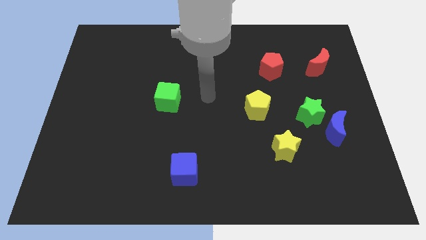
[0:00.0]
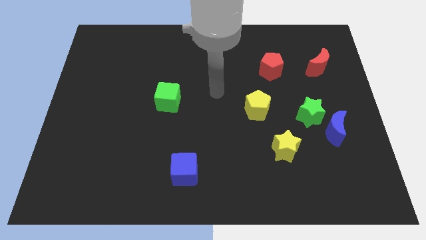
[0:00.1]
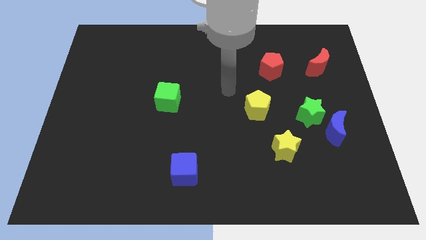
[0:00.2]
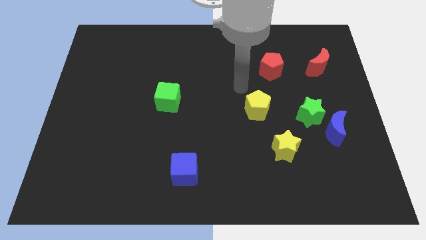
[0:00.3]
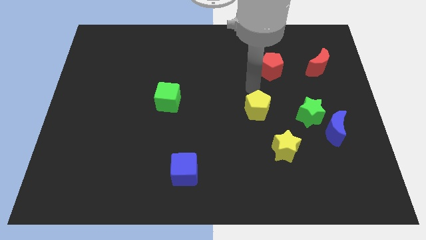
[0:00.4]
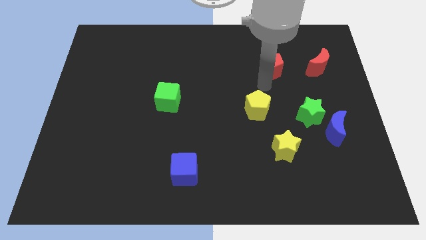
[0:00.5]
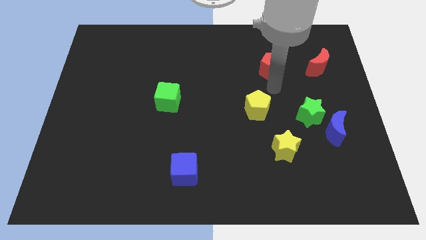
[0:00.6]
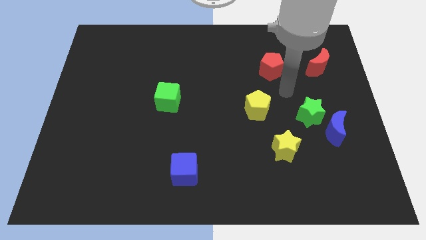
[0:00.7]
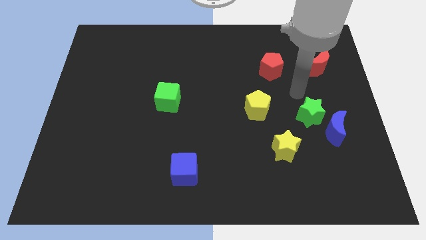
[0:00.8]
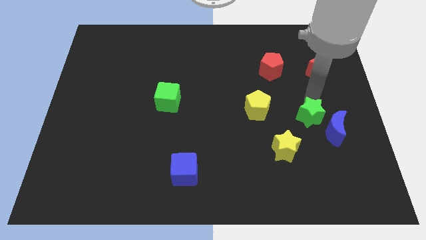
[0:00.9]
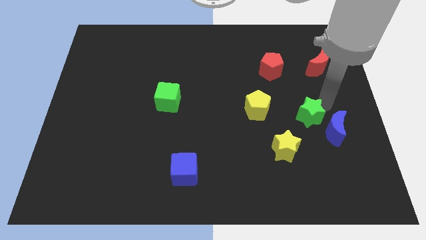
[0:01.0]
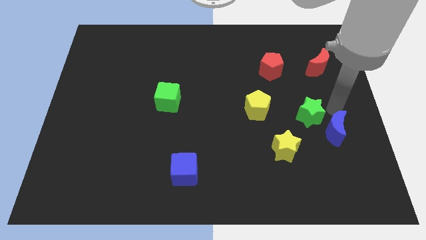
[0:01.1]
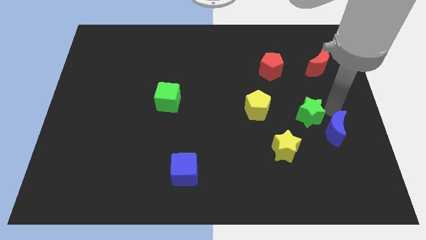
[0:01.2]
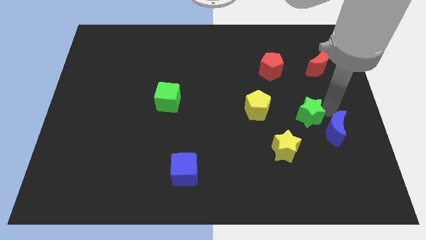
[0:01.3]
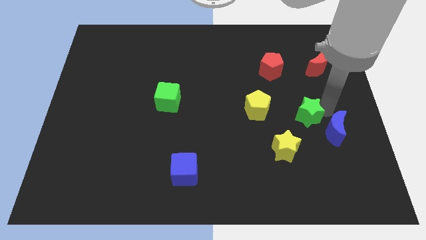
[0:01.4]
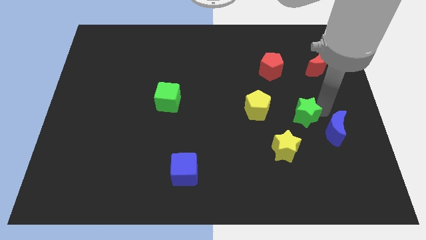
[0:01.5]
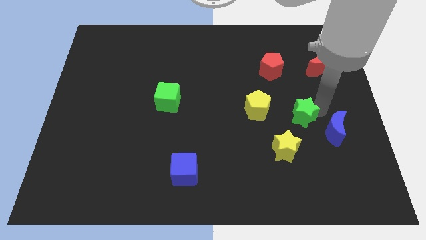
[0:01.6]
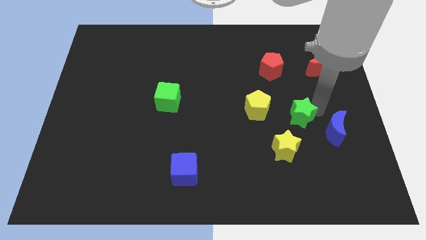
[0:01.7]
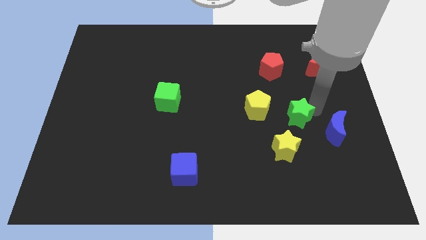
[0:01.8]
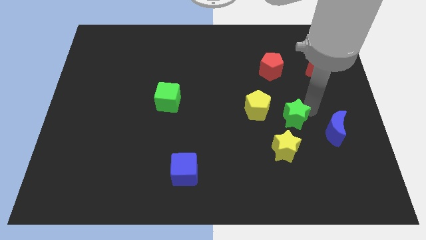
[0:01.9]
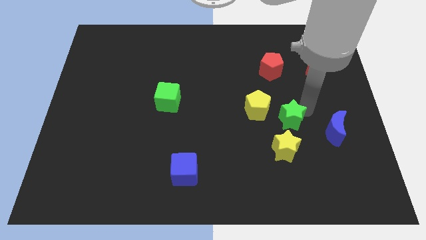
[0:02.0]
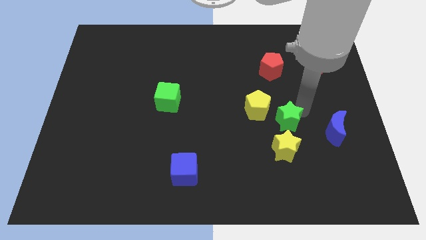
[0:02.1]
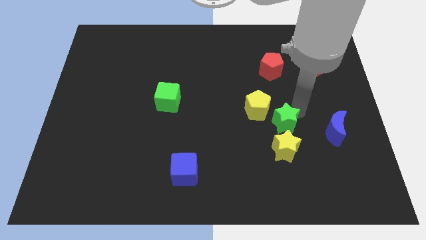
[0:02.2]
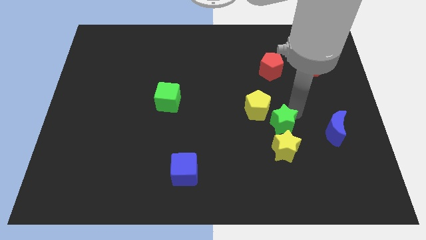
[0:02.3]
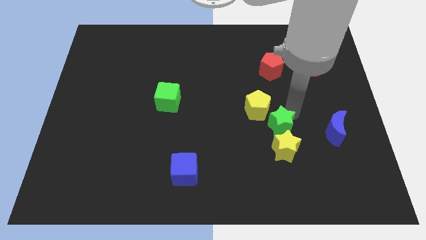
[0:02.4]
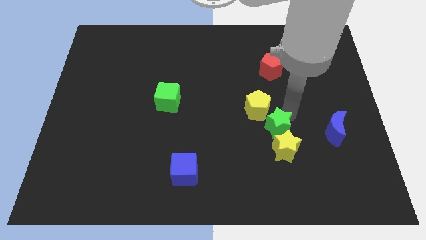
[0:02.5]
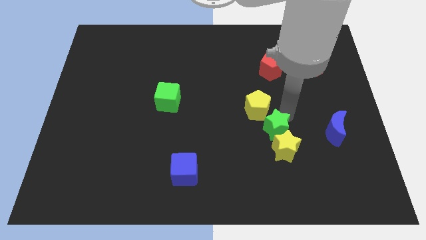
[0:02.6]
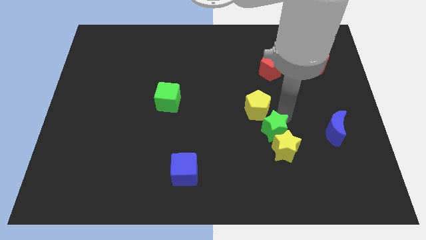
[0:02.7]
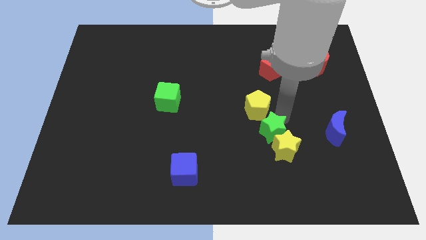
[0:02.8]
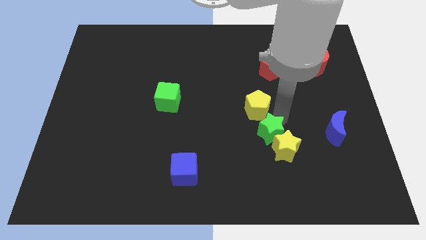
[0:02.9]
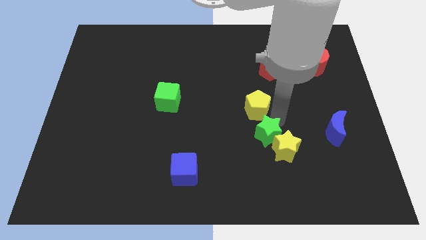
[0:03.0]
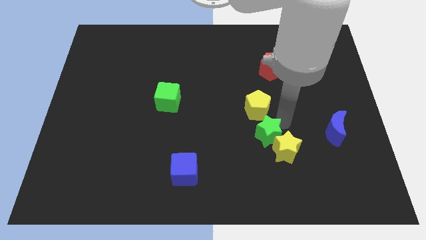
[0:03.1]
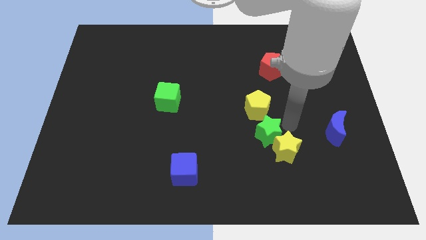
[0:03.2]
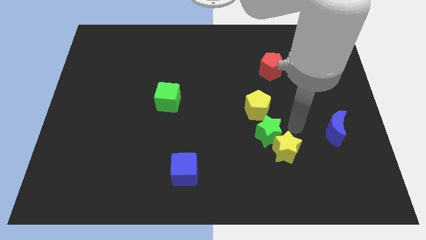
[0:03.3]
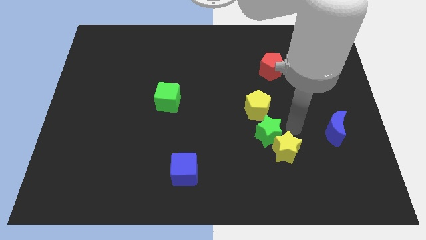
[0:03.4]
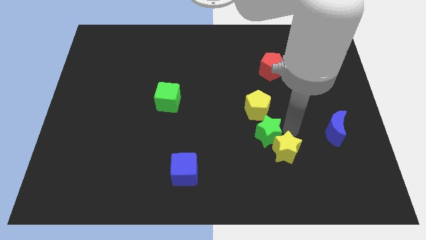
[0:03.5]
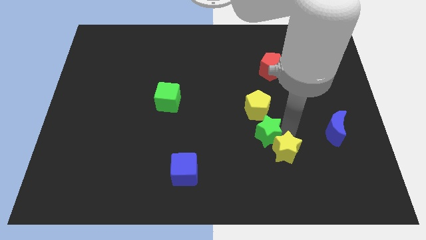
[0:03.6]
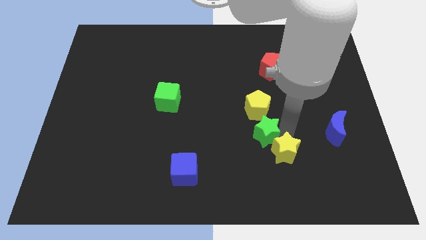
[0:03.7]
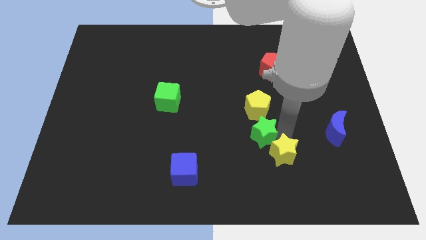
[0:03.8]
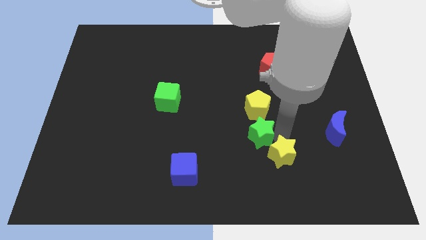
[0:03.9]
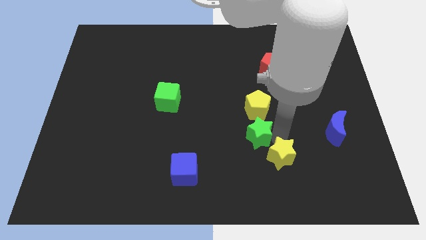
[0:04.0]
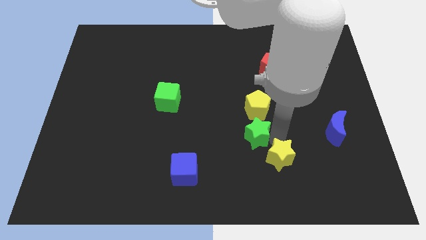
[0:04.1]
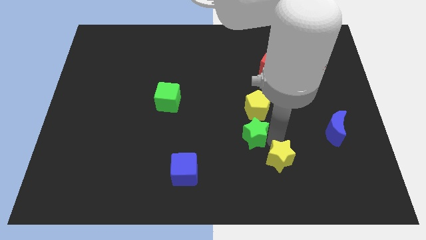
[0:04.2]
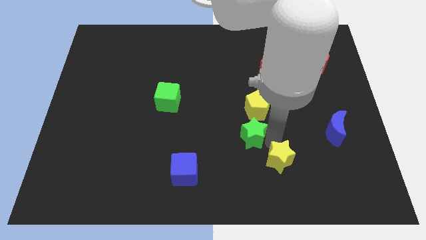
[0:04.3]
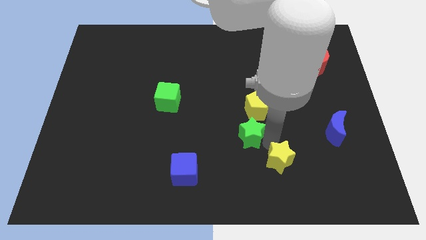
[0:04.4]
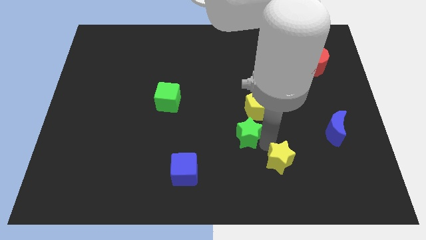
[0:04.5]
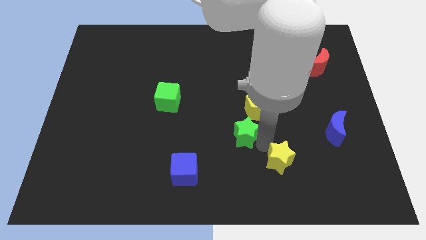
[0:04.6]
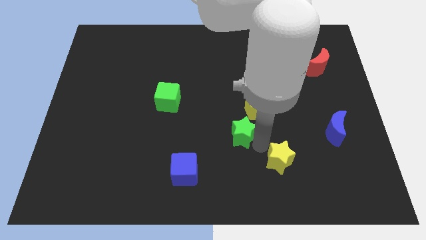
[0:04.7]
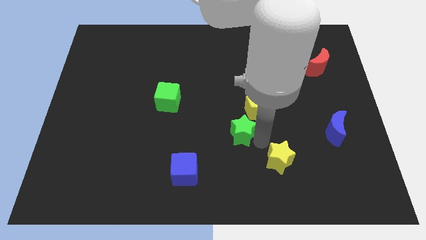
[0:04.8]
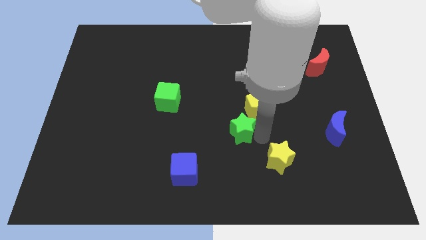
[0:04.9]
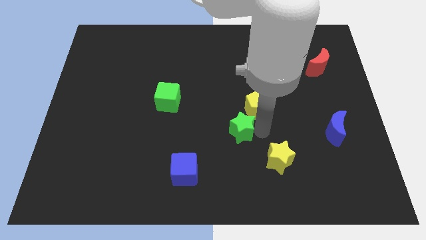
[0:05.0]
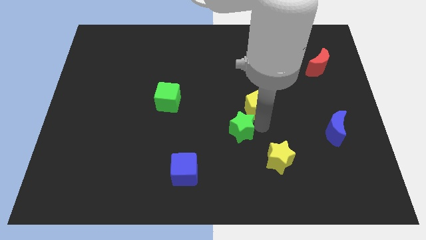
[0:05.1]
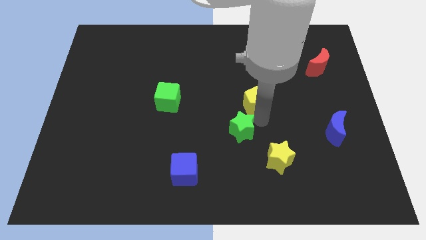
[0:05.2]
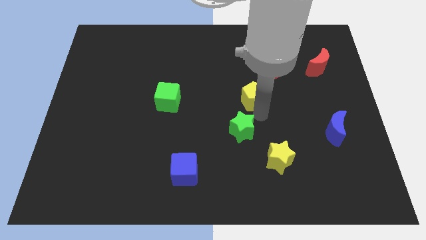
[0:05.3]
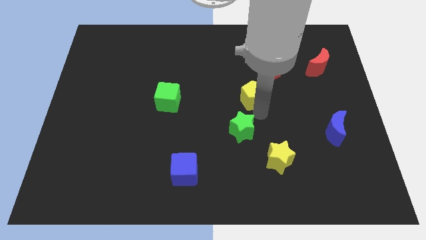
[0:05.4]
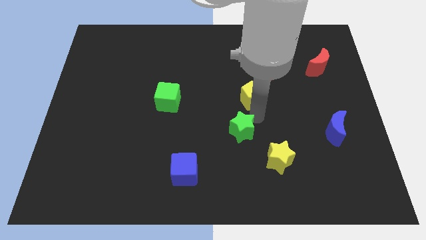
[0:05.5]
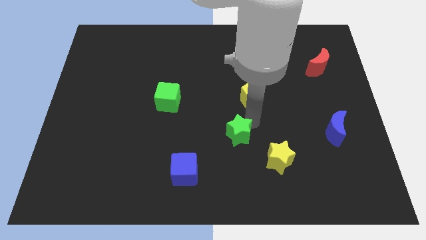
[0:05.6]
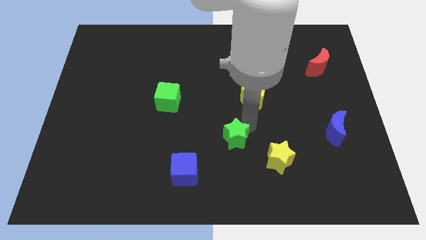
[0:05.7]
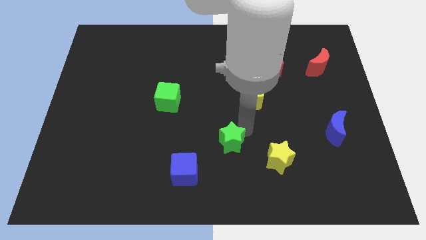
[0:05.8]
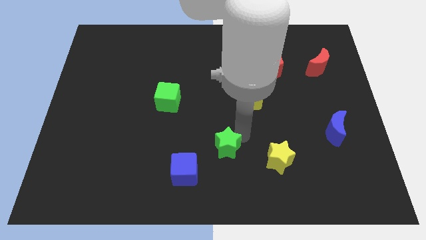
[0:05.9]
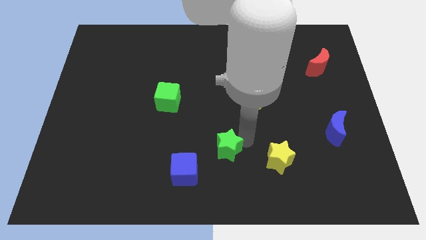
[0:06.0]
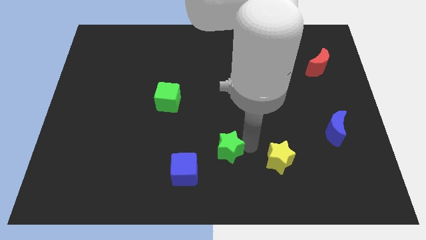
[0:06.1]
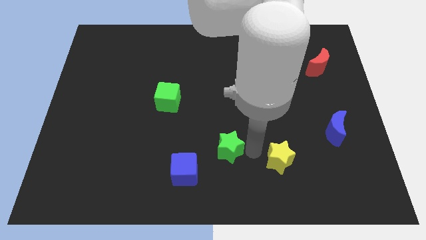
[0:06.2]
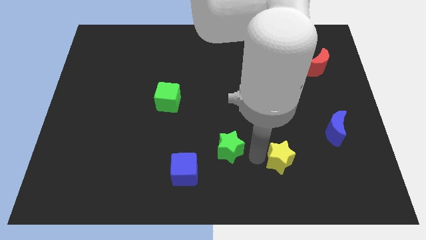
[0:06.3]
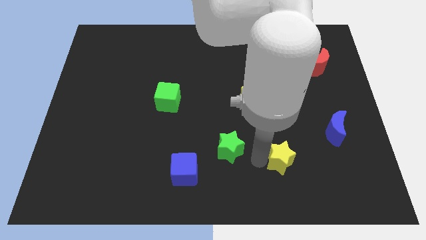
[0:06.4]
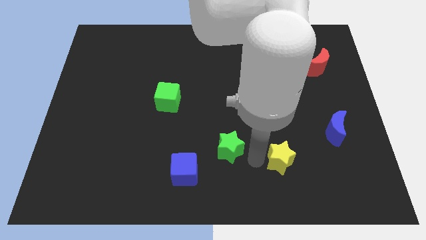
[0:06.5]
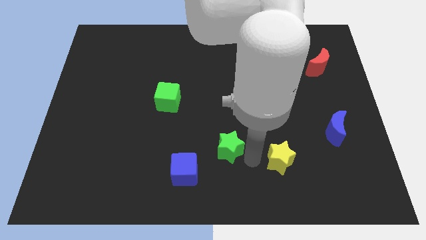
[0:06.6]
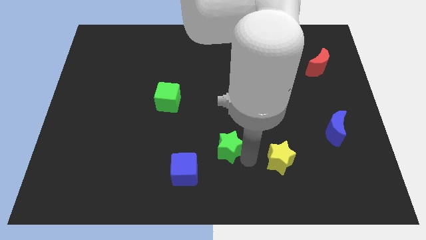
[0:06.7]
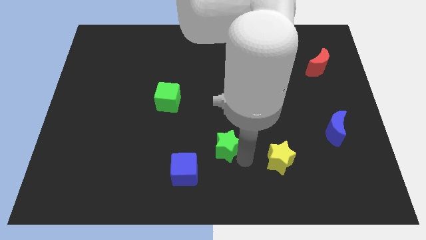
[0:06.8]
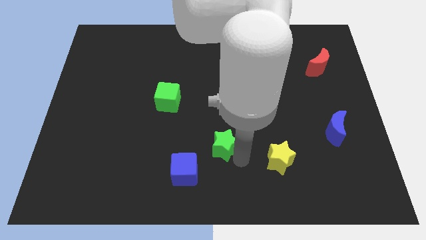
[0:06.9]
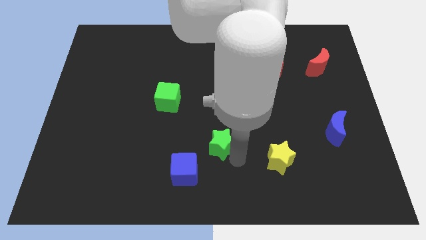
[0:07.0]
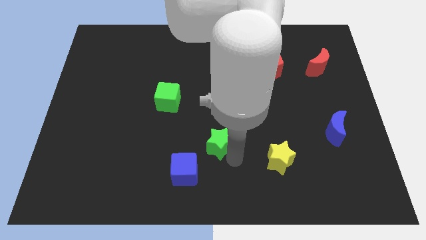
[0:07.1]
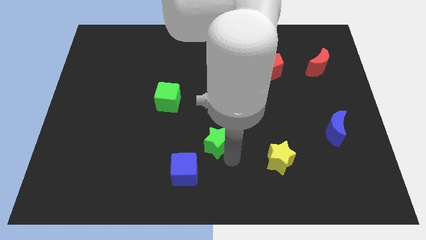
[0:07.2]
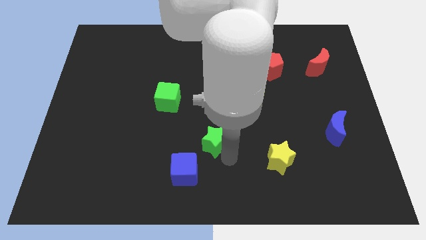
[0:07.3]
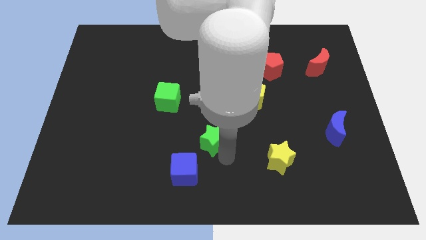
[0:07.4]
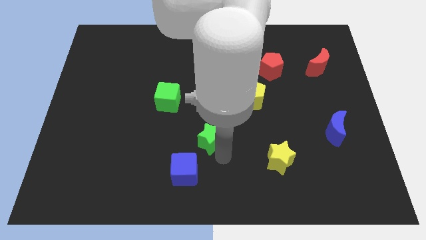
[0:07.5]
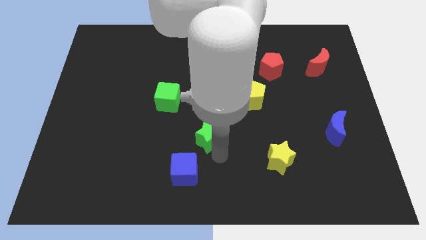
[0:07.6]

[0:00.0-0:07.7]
push the green star above the blue cube
